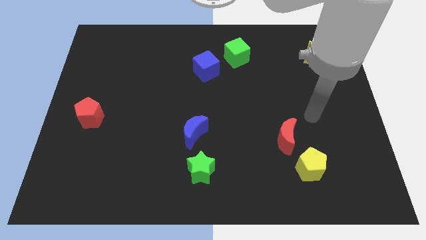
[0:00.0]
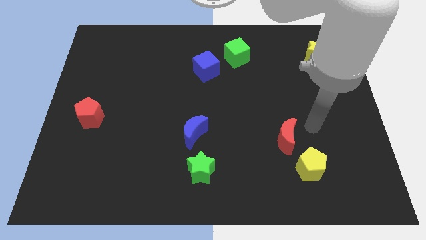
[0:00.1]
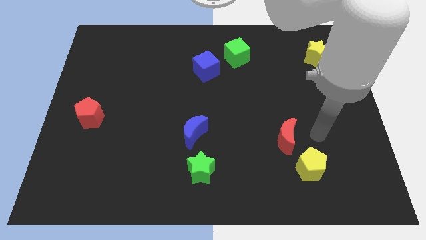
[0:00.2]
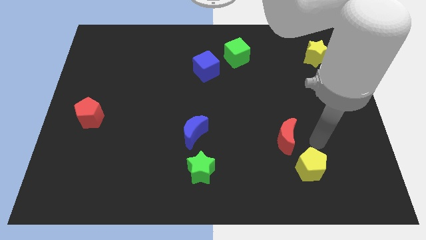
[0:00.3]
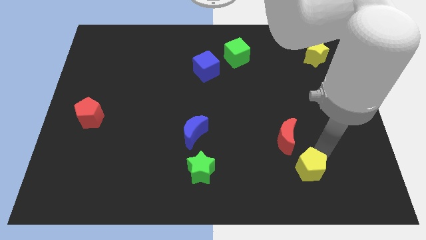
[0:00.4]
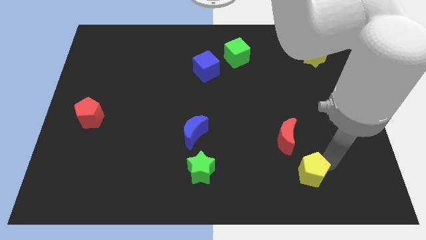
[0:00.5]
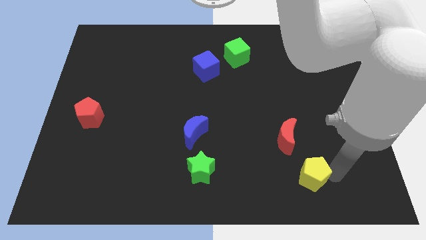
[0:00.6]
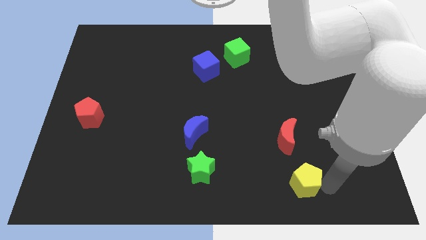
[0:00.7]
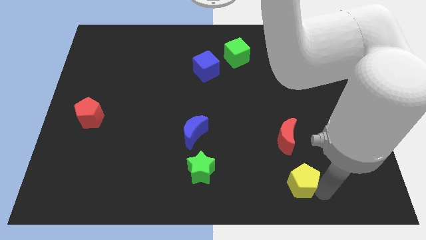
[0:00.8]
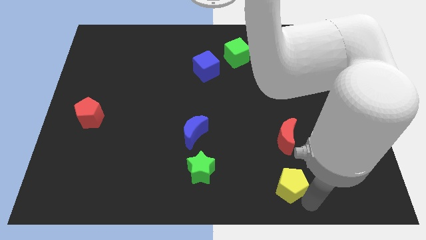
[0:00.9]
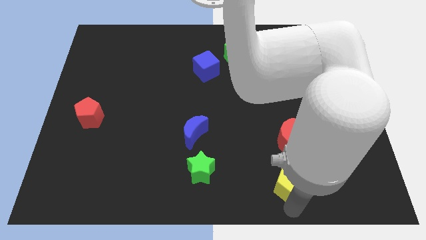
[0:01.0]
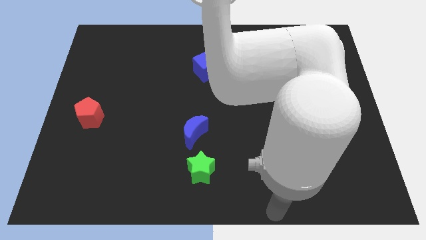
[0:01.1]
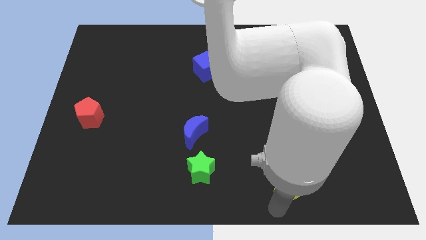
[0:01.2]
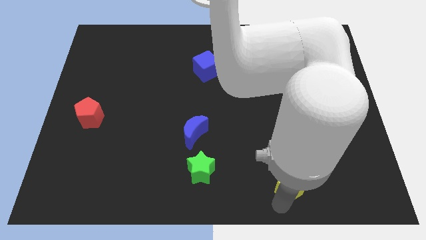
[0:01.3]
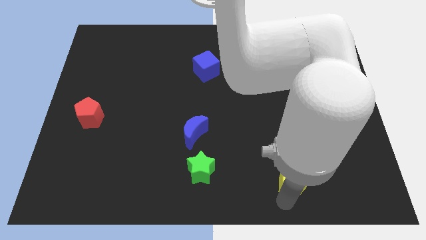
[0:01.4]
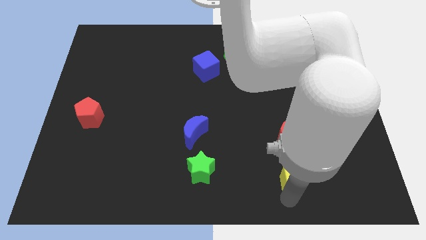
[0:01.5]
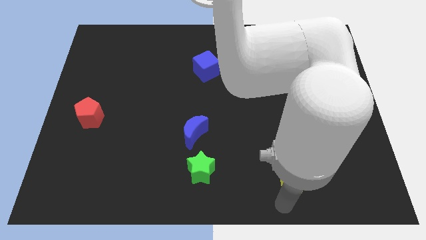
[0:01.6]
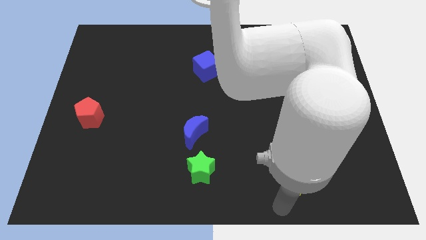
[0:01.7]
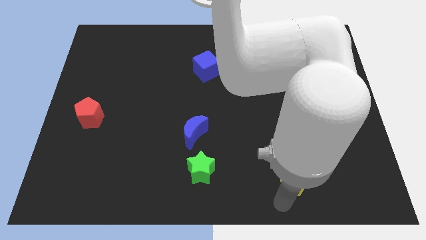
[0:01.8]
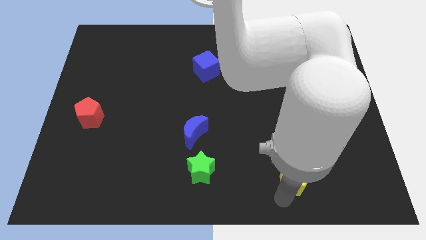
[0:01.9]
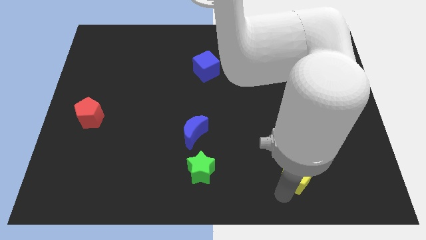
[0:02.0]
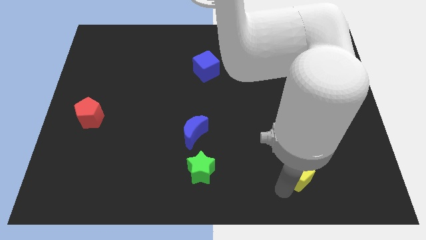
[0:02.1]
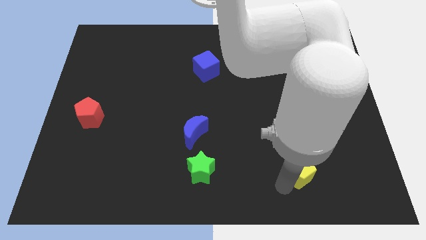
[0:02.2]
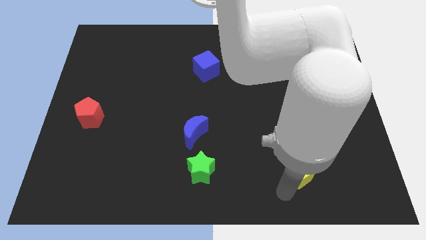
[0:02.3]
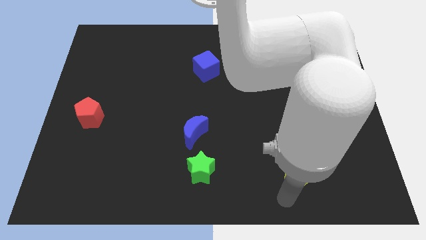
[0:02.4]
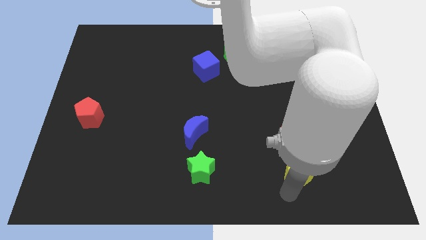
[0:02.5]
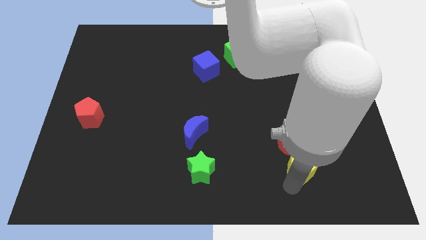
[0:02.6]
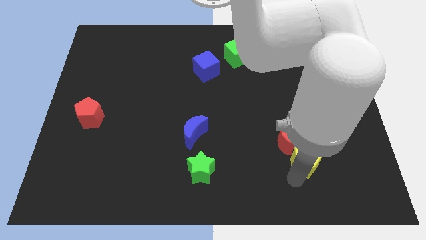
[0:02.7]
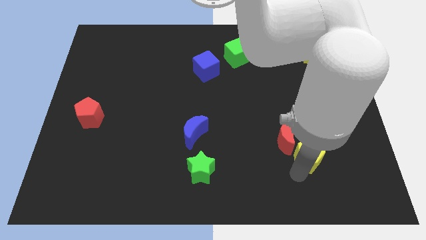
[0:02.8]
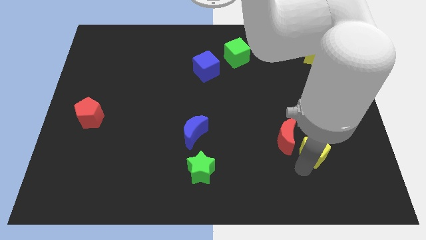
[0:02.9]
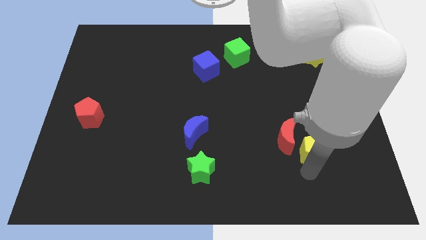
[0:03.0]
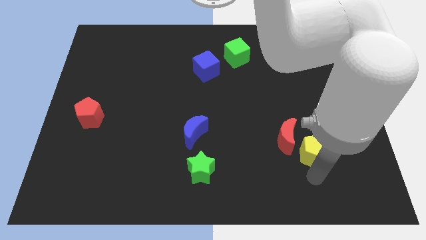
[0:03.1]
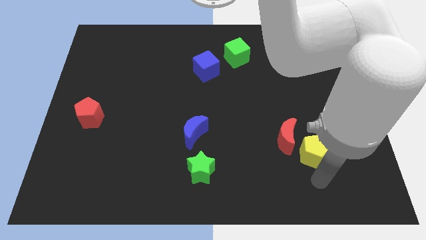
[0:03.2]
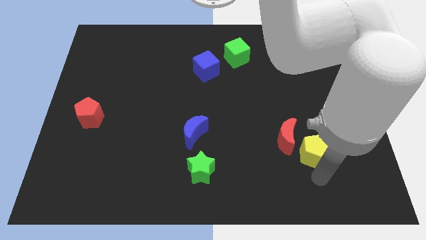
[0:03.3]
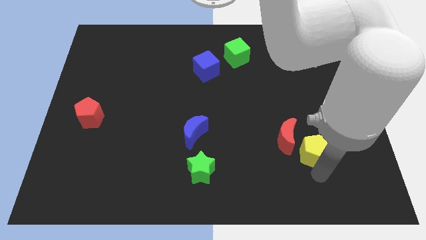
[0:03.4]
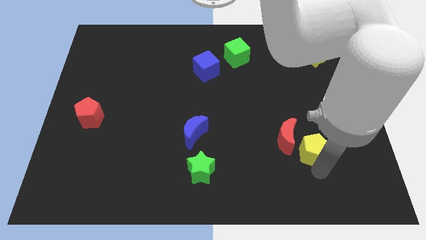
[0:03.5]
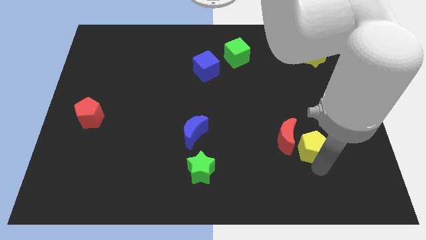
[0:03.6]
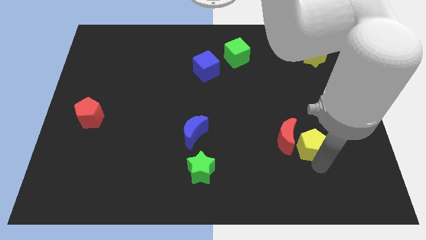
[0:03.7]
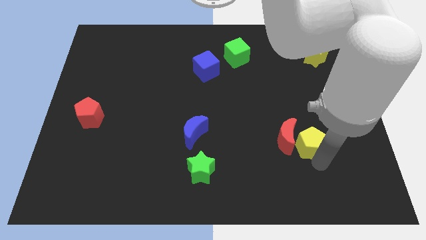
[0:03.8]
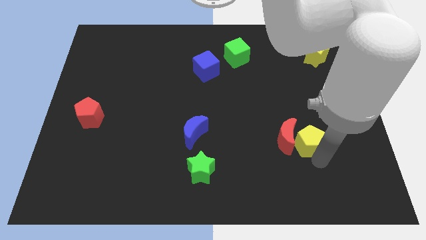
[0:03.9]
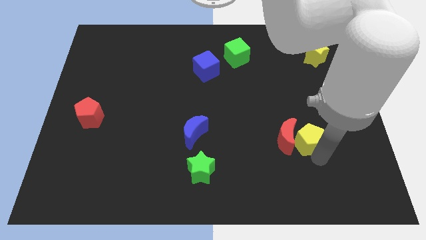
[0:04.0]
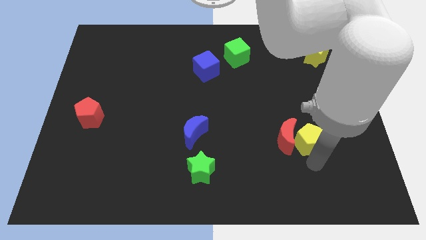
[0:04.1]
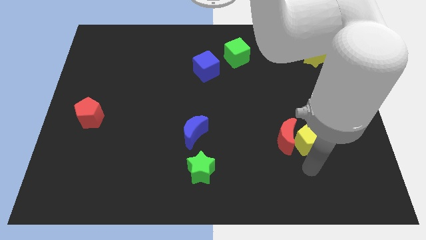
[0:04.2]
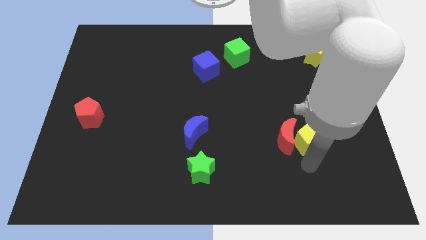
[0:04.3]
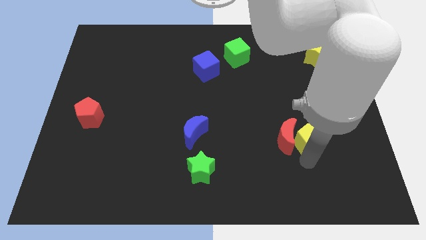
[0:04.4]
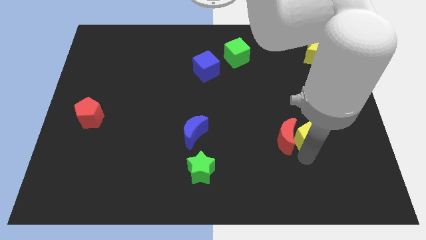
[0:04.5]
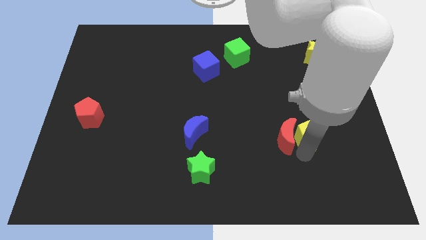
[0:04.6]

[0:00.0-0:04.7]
slide the yellow pentagon a little upwards

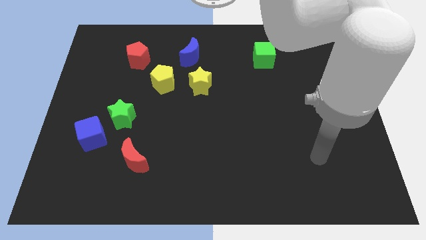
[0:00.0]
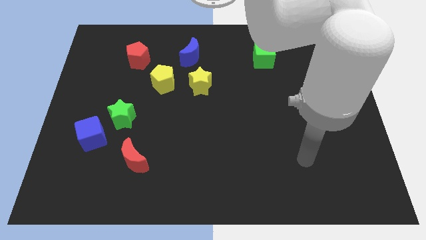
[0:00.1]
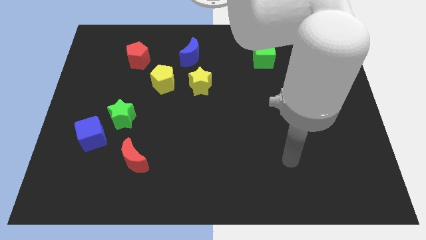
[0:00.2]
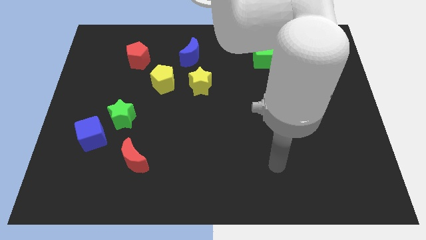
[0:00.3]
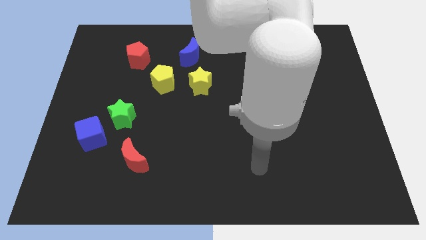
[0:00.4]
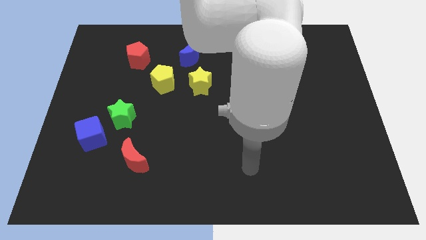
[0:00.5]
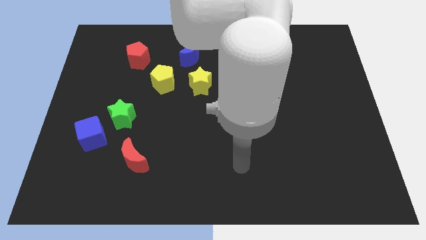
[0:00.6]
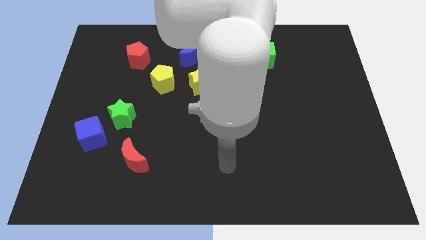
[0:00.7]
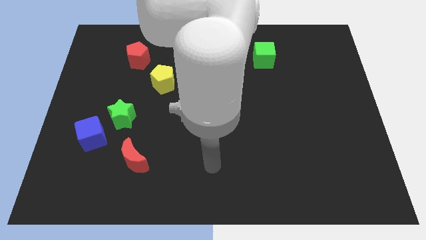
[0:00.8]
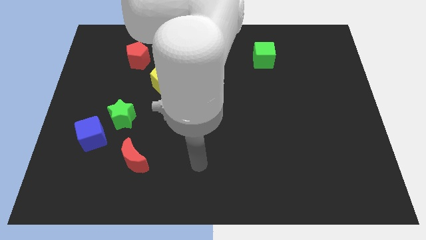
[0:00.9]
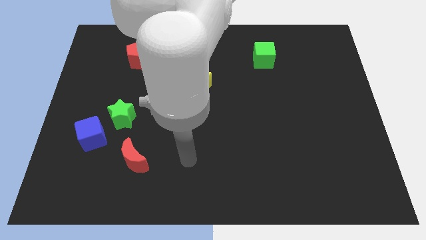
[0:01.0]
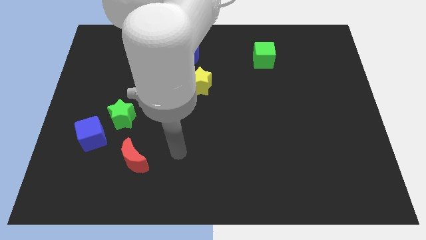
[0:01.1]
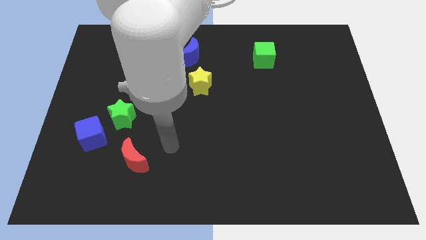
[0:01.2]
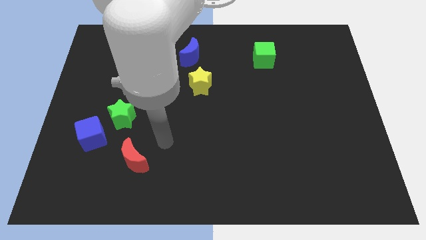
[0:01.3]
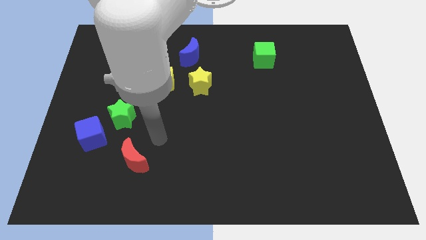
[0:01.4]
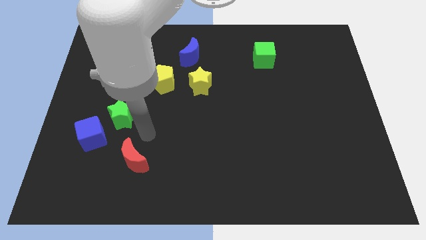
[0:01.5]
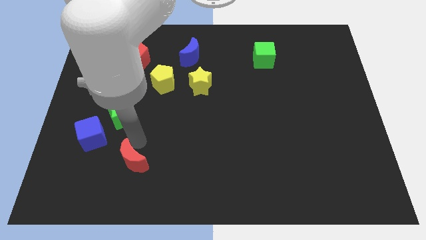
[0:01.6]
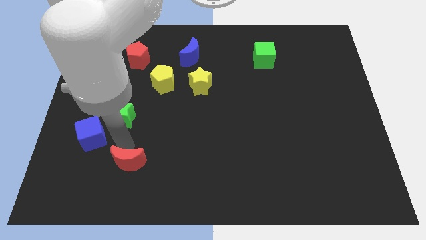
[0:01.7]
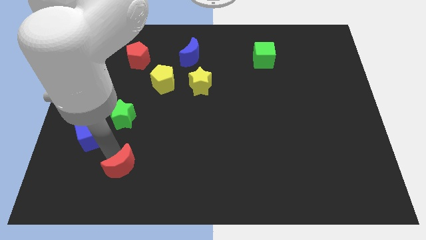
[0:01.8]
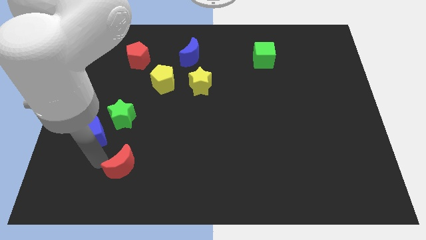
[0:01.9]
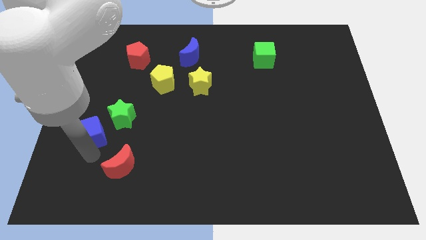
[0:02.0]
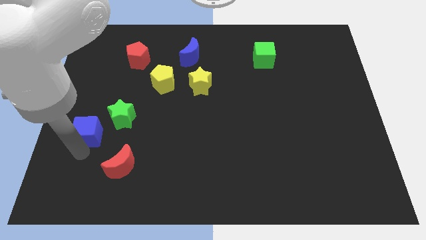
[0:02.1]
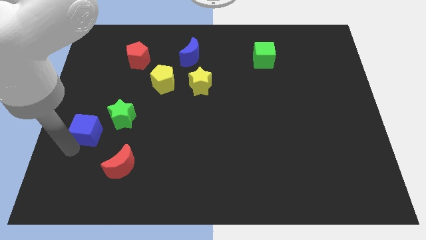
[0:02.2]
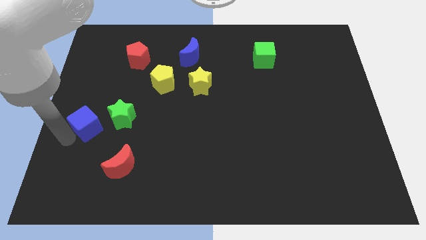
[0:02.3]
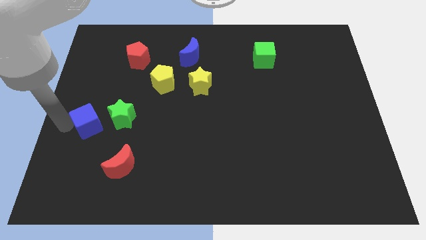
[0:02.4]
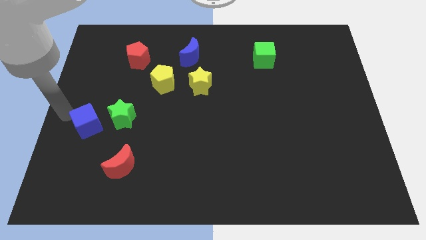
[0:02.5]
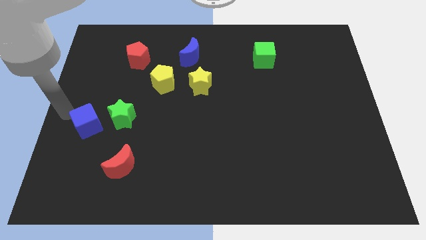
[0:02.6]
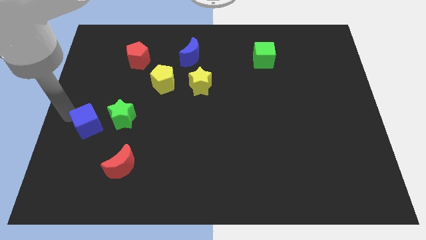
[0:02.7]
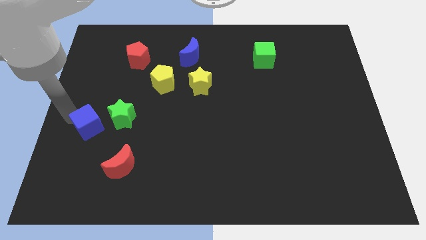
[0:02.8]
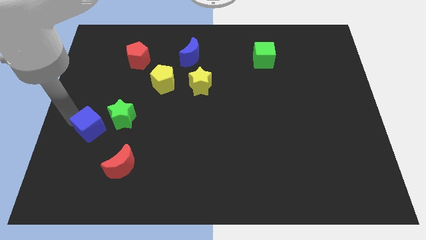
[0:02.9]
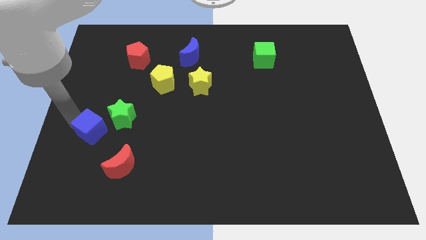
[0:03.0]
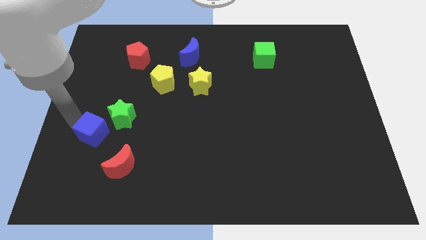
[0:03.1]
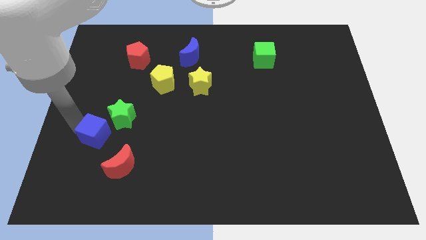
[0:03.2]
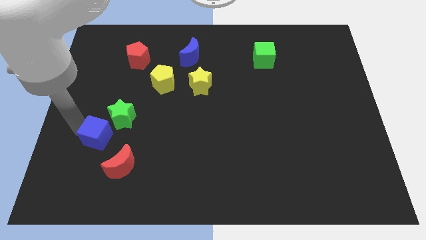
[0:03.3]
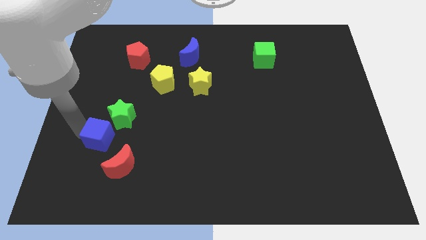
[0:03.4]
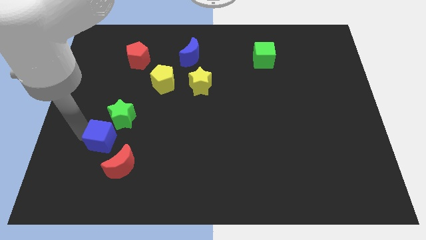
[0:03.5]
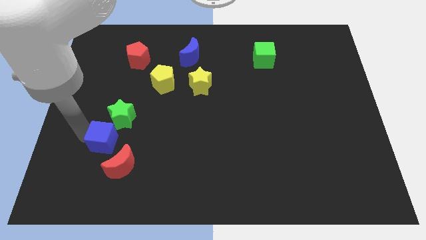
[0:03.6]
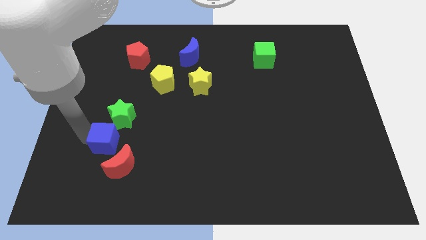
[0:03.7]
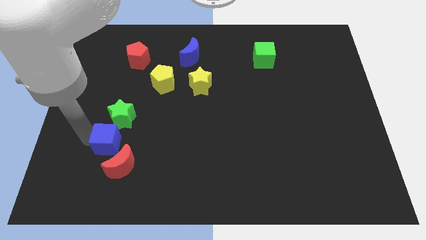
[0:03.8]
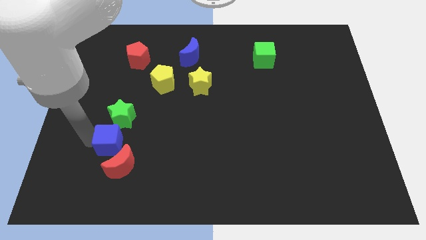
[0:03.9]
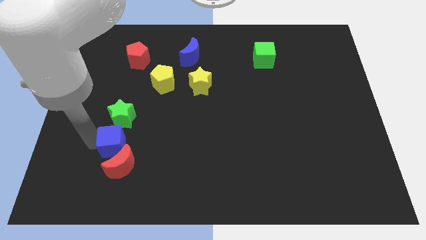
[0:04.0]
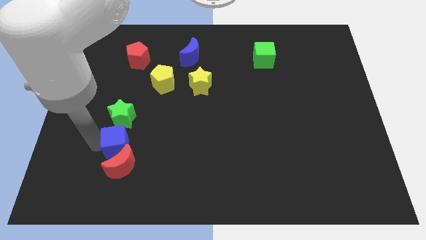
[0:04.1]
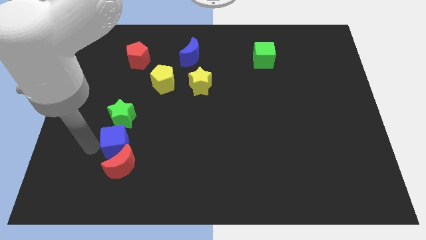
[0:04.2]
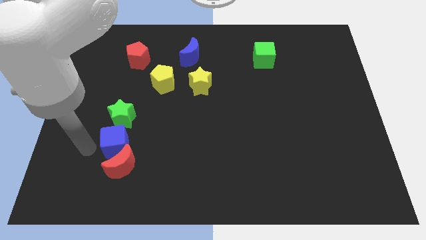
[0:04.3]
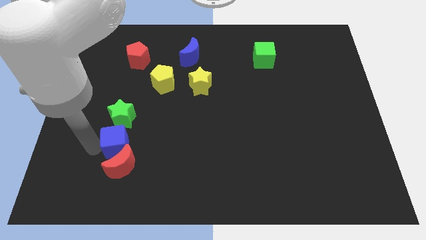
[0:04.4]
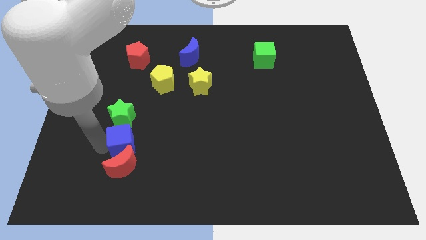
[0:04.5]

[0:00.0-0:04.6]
slightly push the blue cube right
